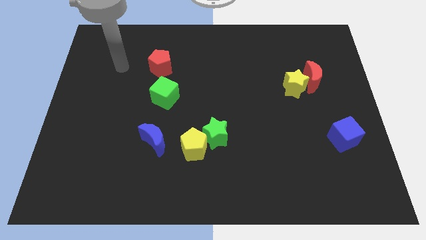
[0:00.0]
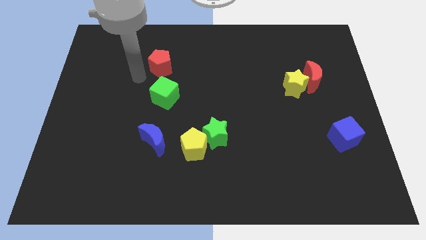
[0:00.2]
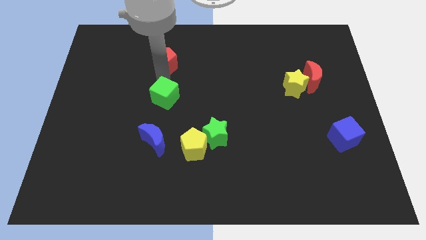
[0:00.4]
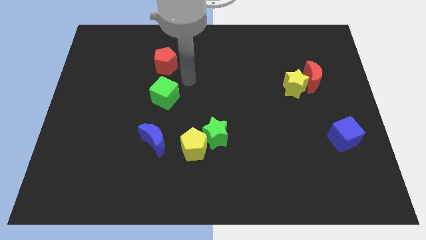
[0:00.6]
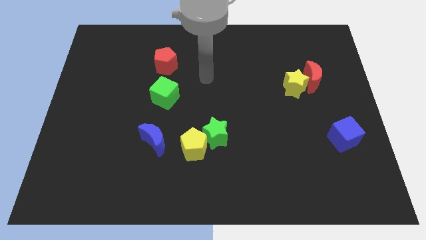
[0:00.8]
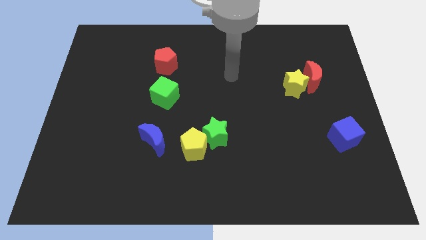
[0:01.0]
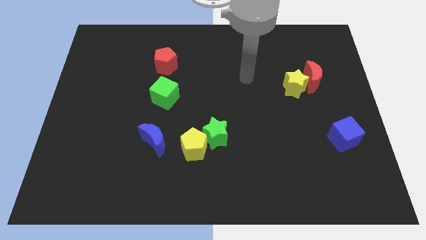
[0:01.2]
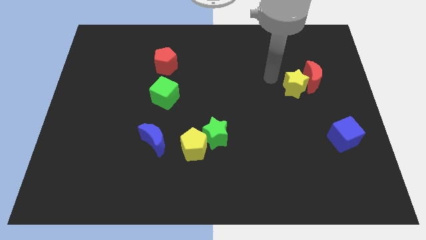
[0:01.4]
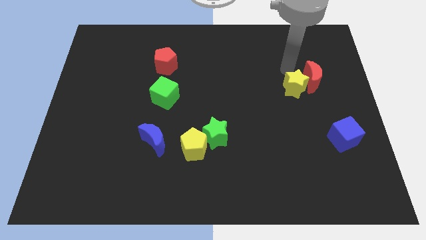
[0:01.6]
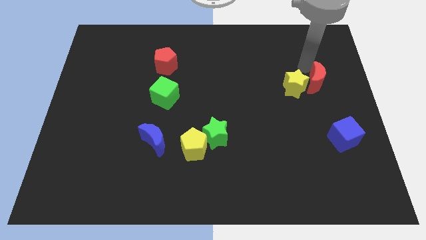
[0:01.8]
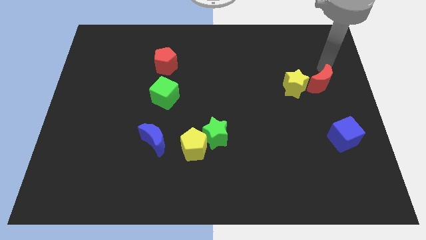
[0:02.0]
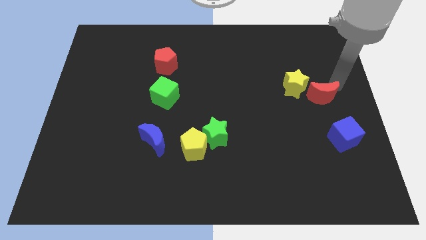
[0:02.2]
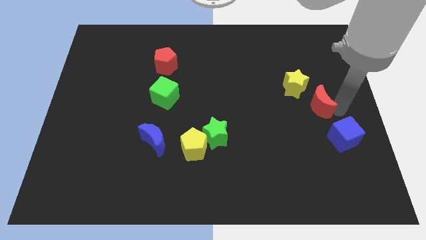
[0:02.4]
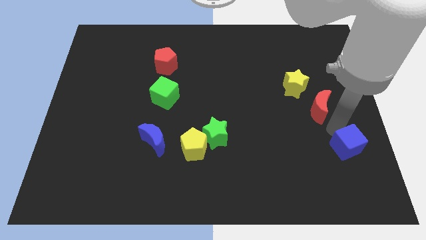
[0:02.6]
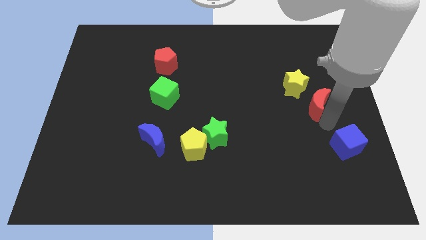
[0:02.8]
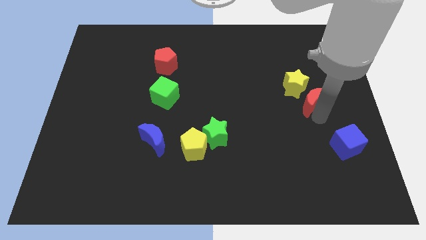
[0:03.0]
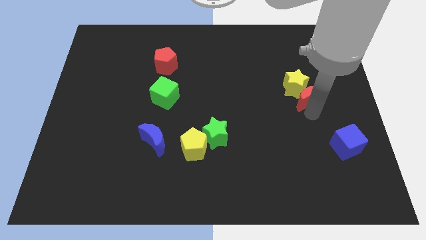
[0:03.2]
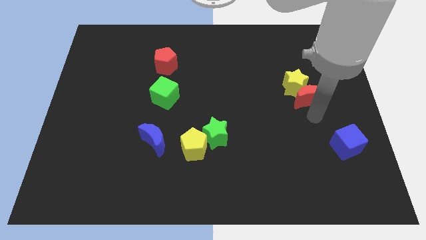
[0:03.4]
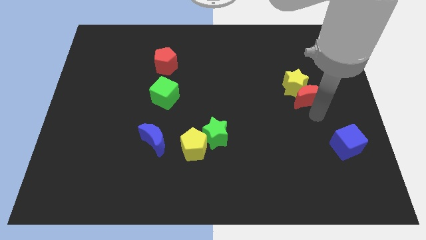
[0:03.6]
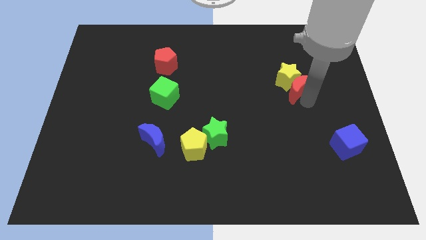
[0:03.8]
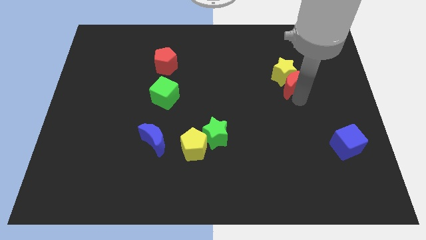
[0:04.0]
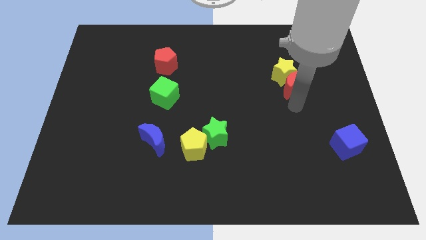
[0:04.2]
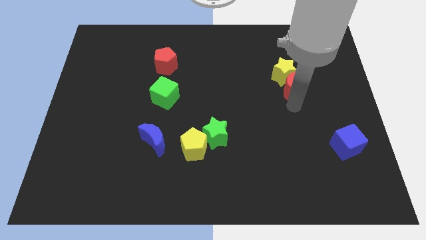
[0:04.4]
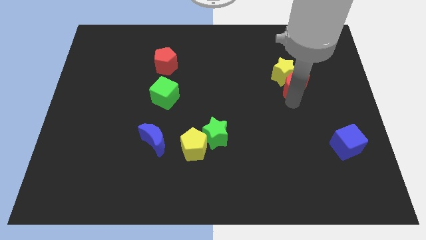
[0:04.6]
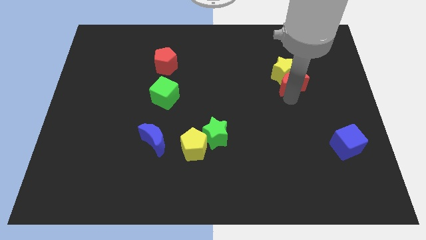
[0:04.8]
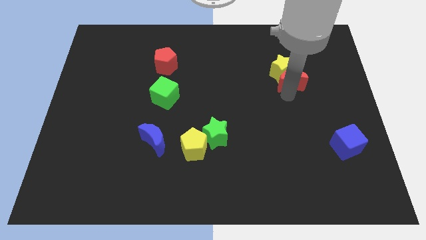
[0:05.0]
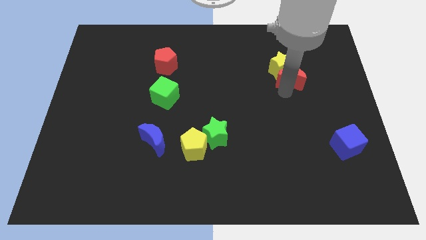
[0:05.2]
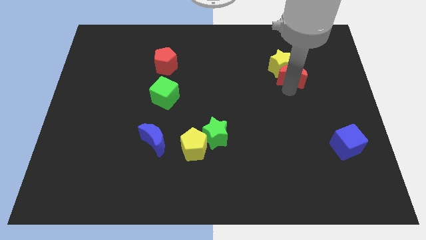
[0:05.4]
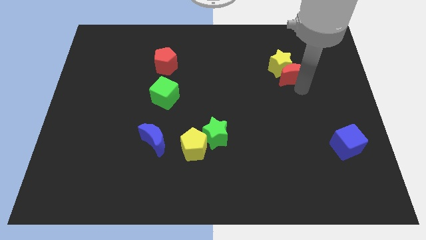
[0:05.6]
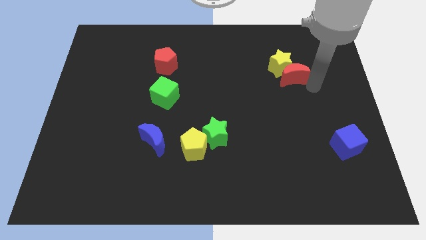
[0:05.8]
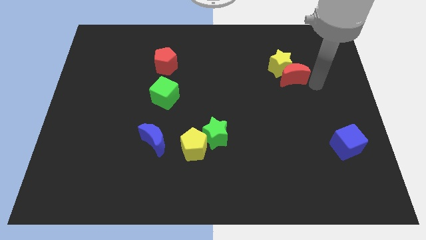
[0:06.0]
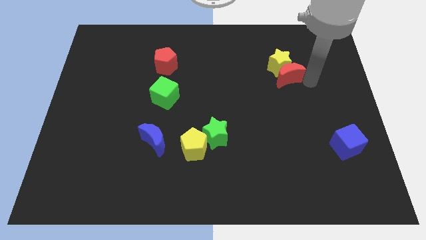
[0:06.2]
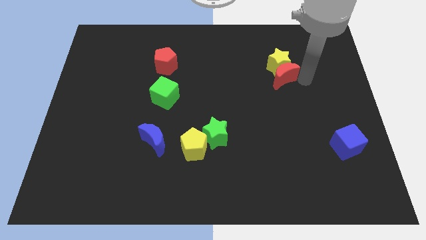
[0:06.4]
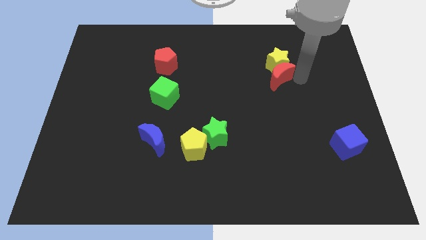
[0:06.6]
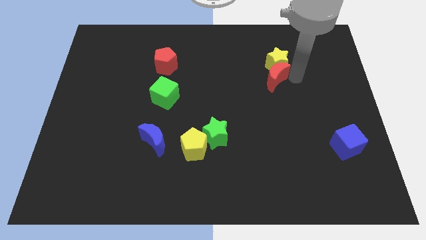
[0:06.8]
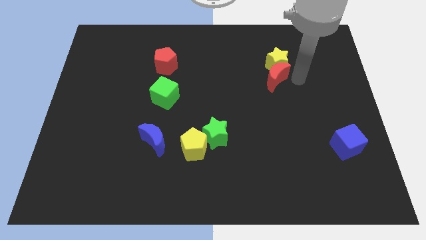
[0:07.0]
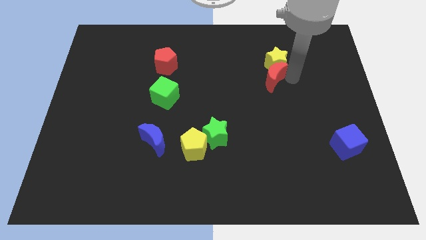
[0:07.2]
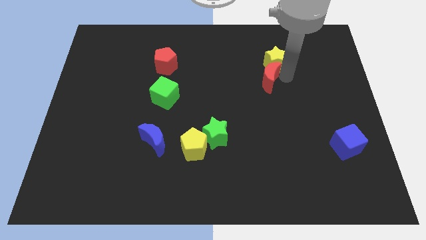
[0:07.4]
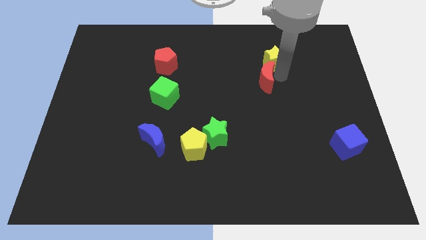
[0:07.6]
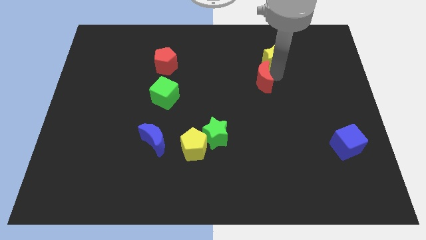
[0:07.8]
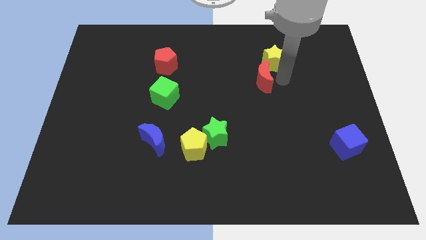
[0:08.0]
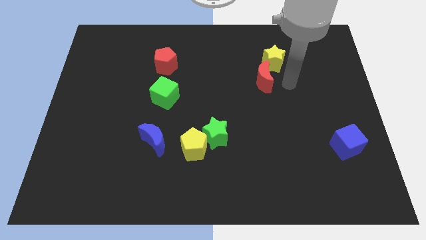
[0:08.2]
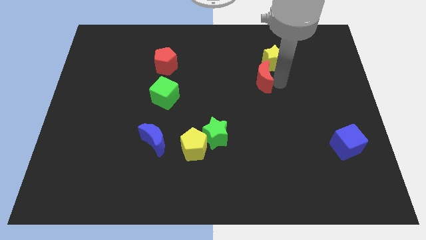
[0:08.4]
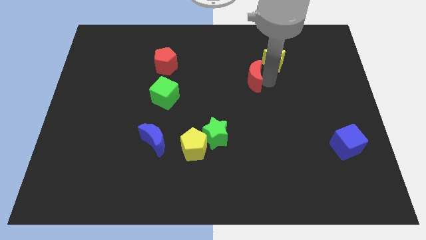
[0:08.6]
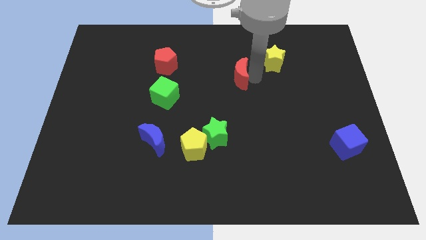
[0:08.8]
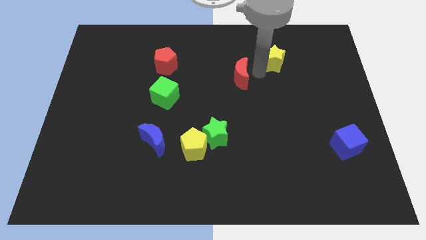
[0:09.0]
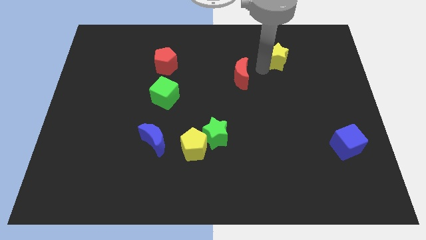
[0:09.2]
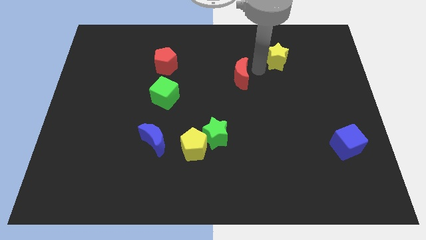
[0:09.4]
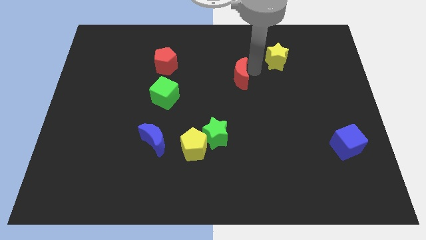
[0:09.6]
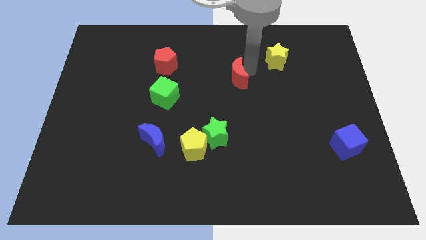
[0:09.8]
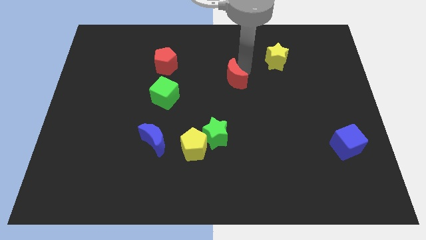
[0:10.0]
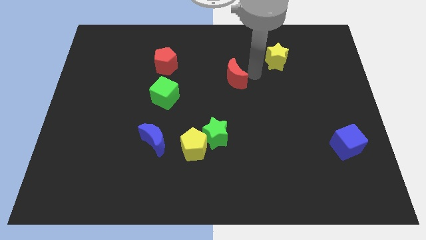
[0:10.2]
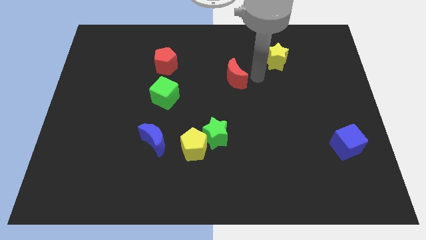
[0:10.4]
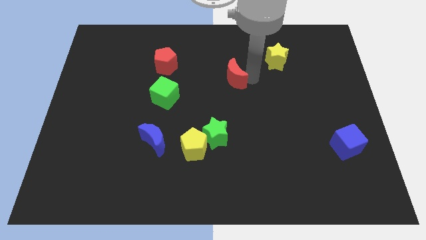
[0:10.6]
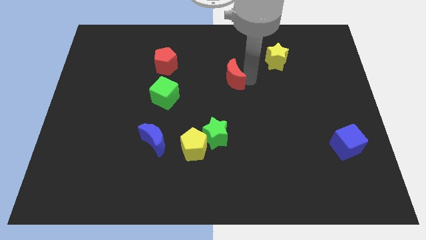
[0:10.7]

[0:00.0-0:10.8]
slide the red moon left

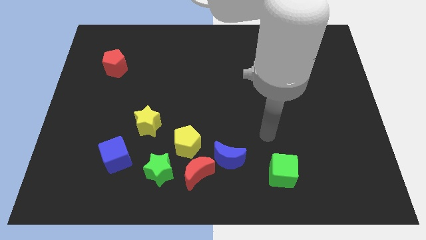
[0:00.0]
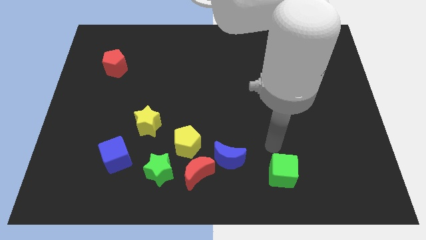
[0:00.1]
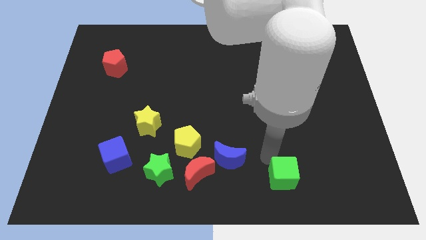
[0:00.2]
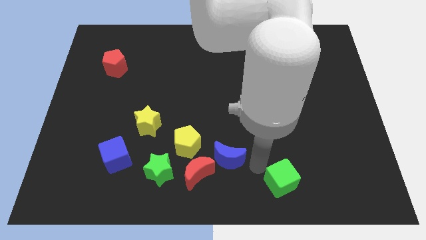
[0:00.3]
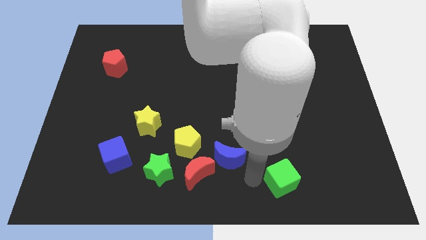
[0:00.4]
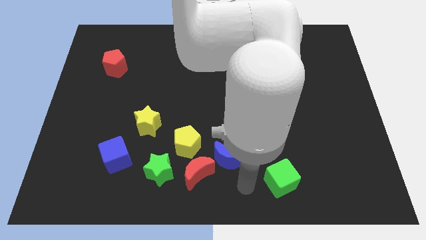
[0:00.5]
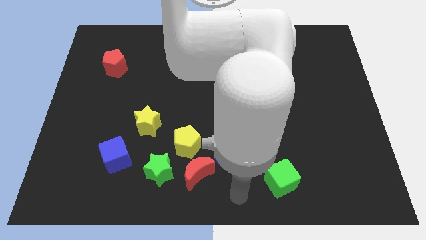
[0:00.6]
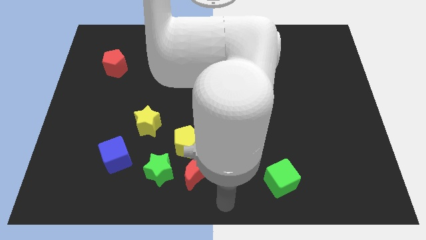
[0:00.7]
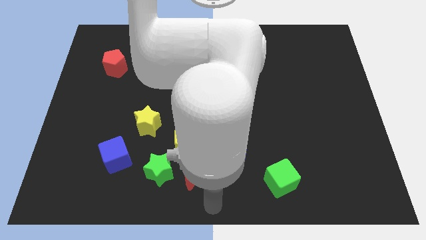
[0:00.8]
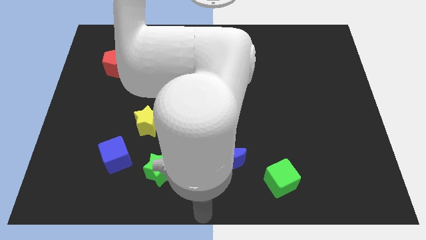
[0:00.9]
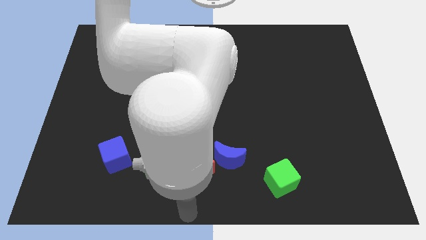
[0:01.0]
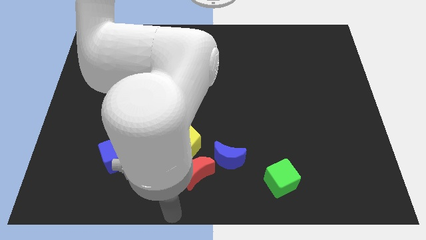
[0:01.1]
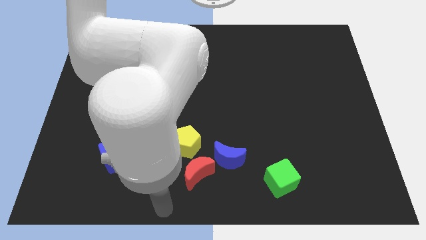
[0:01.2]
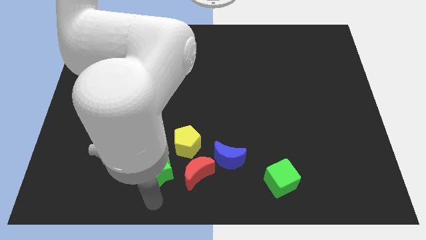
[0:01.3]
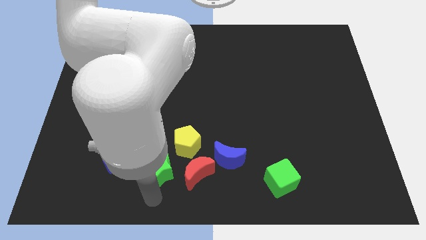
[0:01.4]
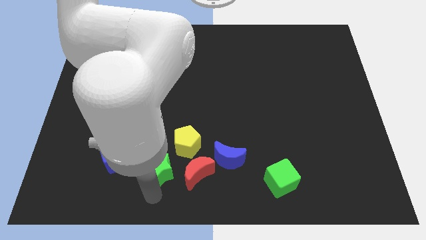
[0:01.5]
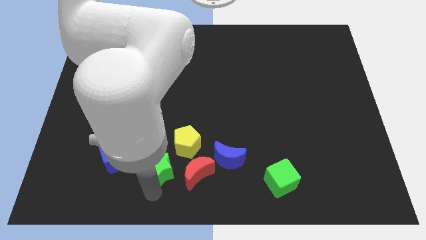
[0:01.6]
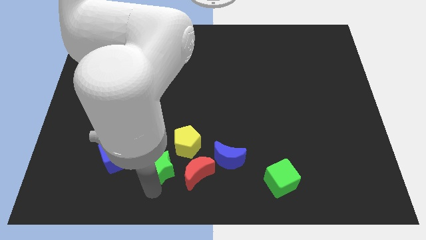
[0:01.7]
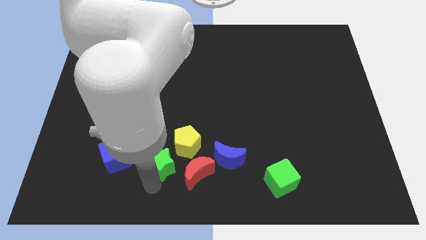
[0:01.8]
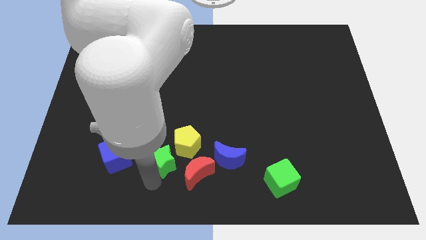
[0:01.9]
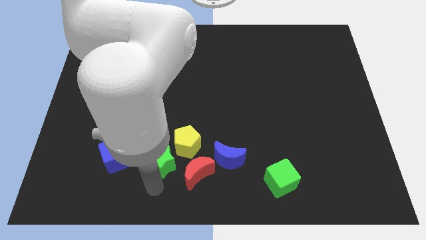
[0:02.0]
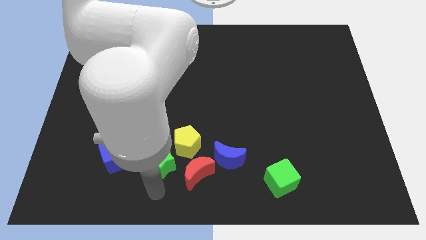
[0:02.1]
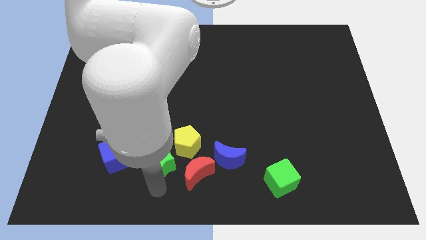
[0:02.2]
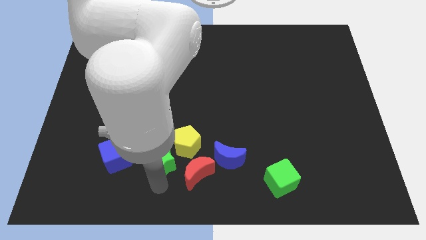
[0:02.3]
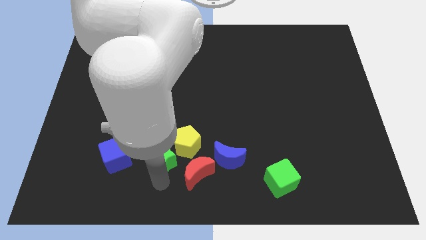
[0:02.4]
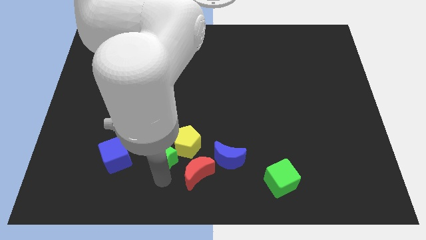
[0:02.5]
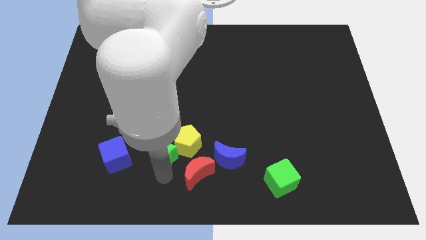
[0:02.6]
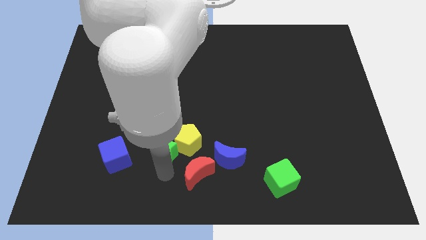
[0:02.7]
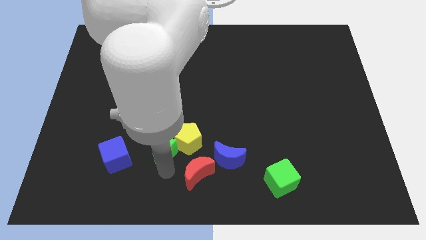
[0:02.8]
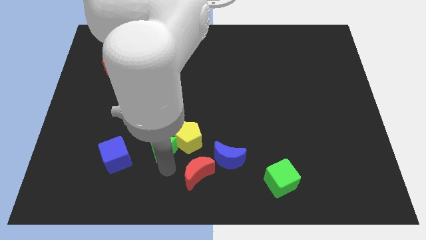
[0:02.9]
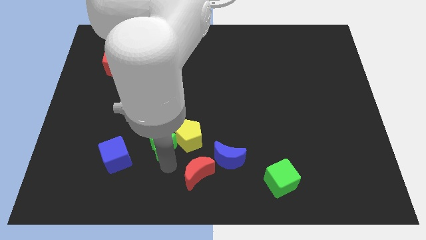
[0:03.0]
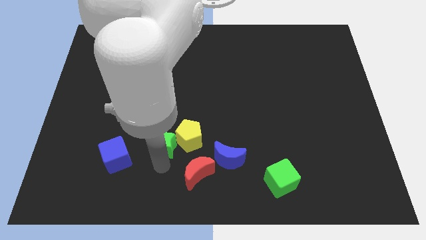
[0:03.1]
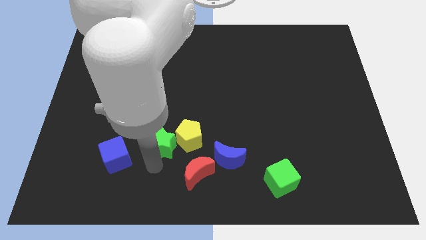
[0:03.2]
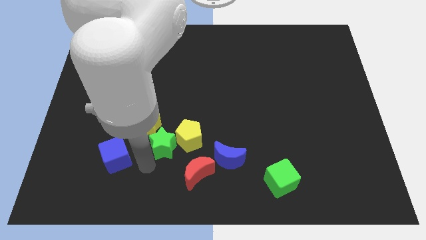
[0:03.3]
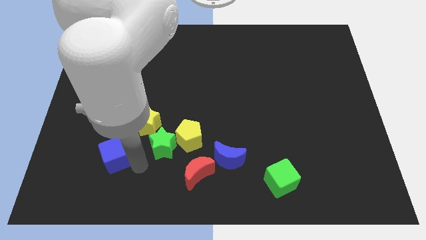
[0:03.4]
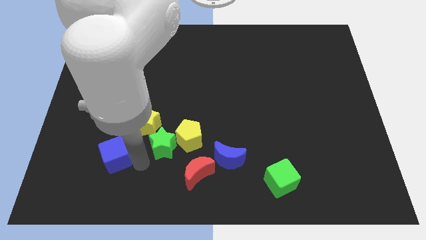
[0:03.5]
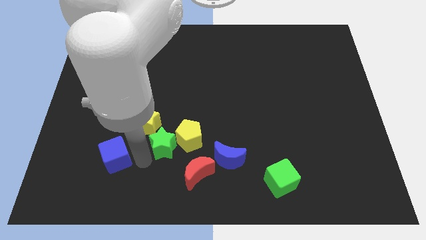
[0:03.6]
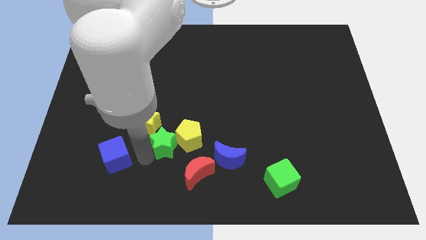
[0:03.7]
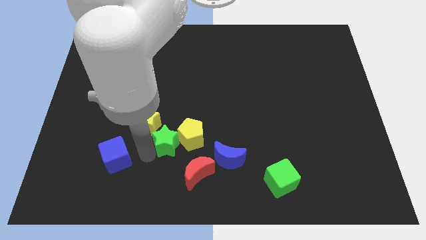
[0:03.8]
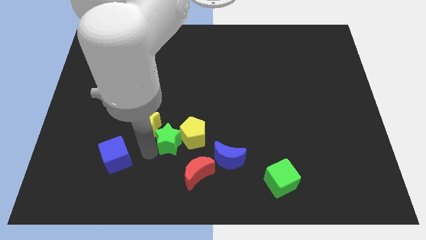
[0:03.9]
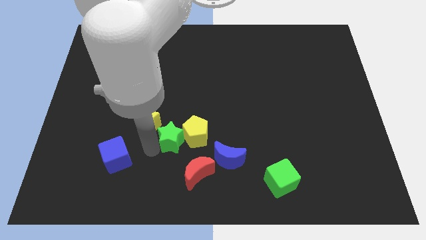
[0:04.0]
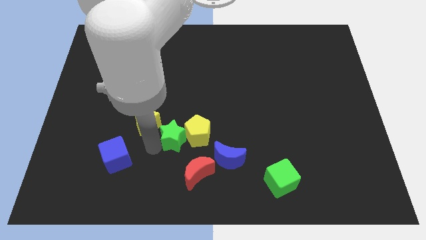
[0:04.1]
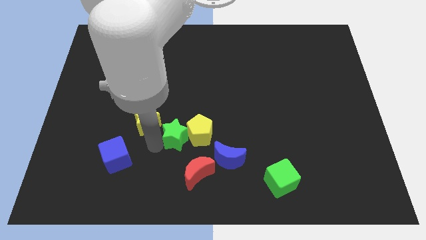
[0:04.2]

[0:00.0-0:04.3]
move the green star up and to the right diagonally slightly
